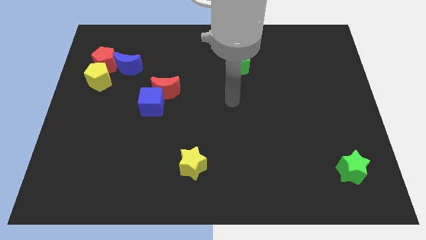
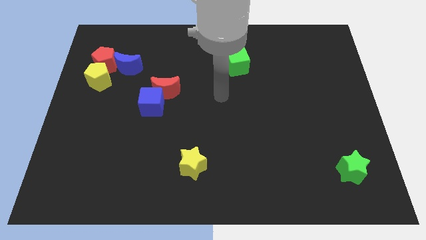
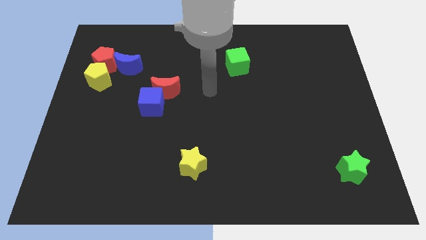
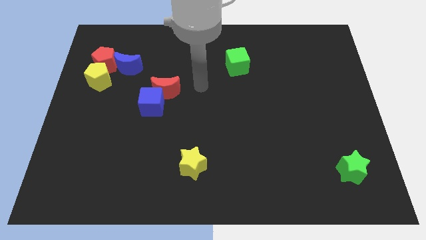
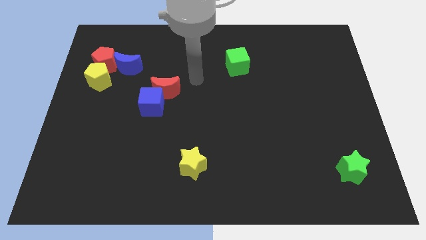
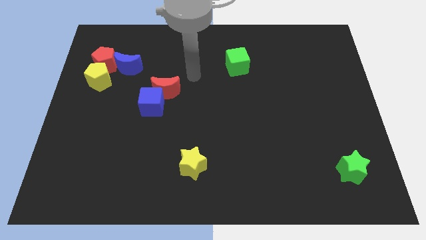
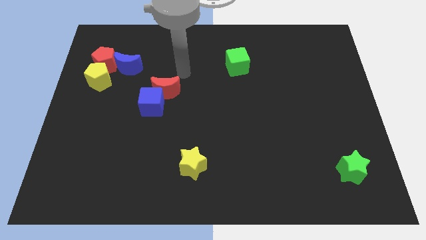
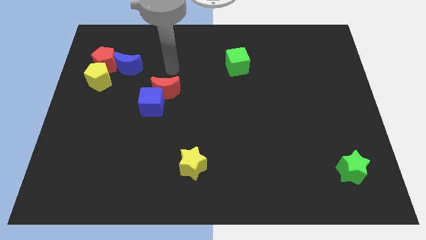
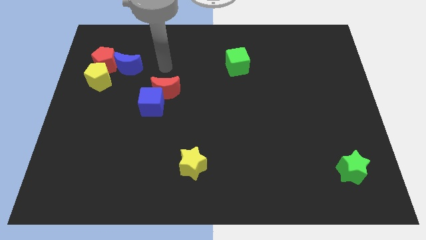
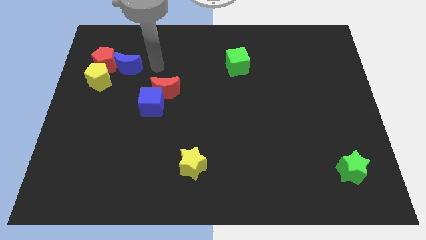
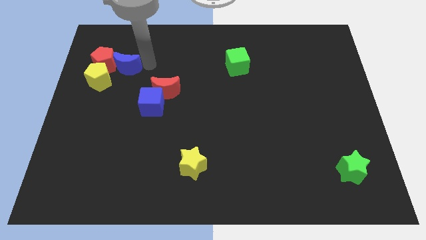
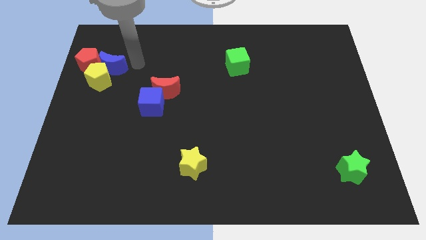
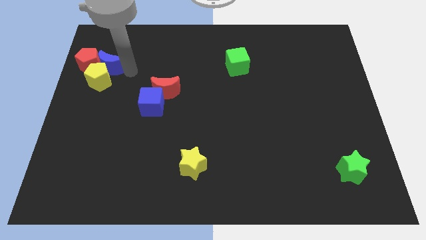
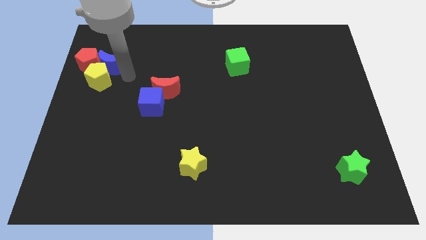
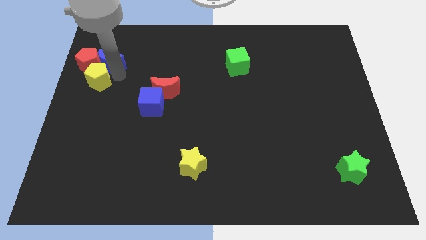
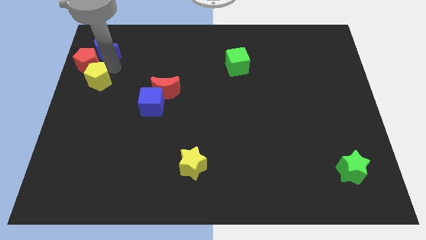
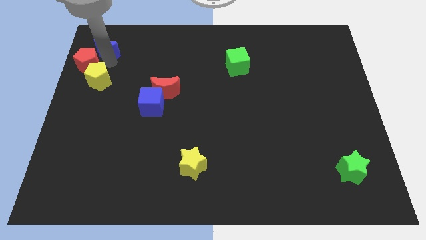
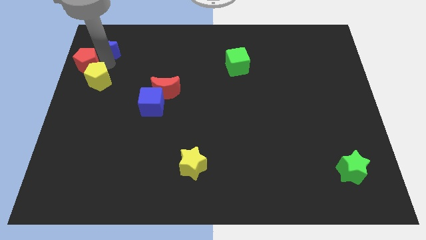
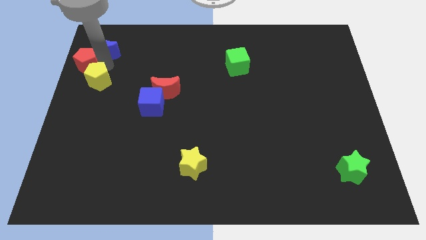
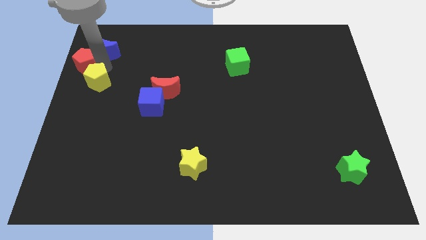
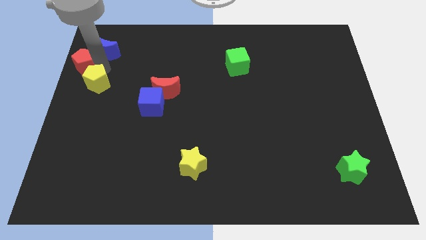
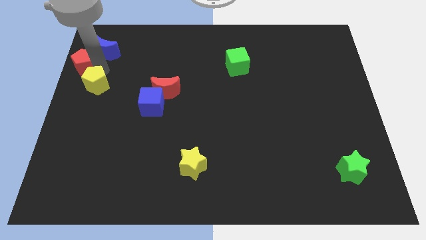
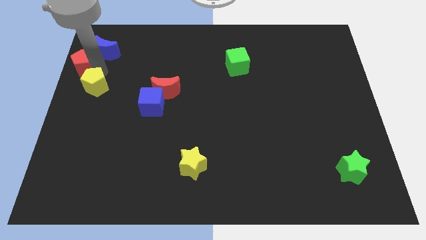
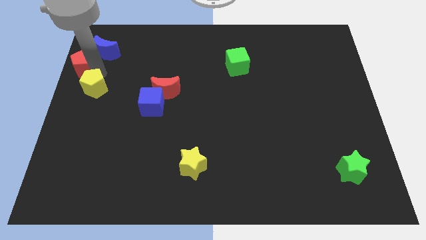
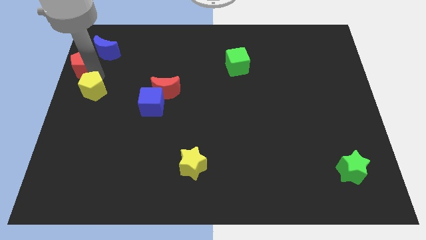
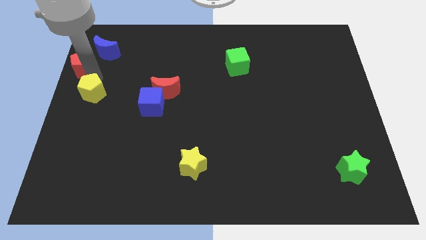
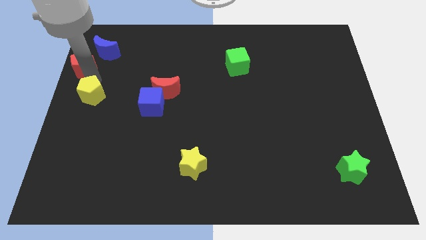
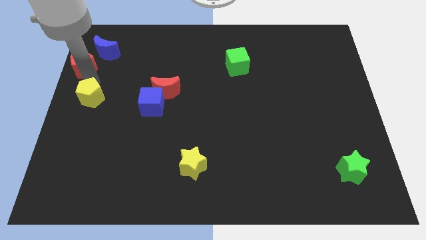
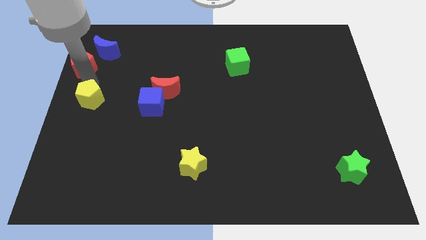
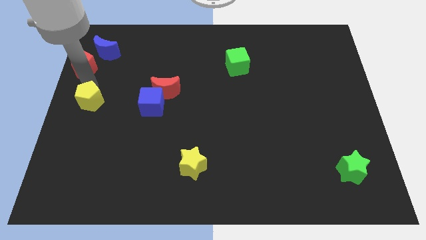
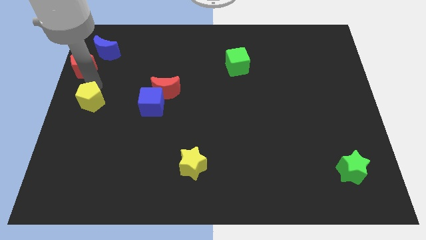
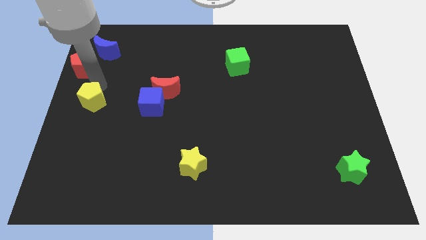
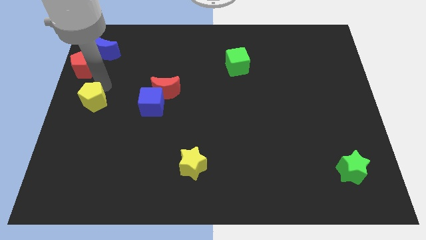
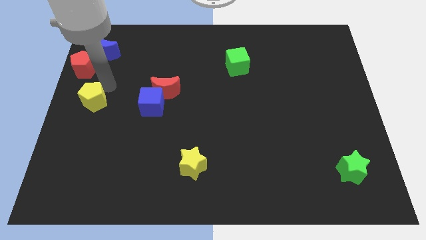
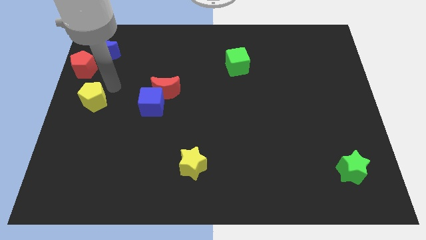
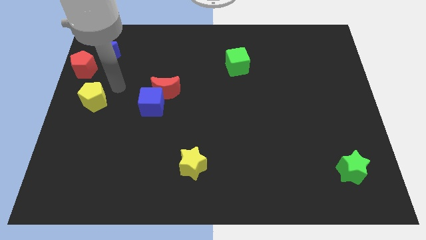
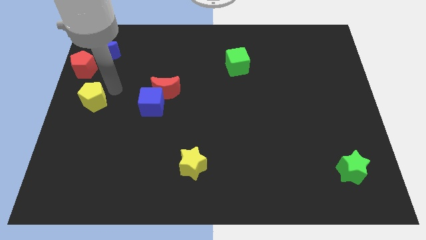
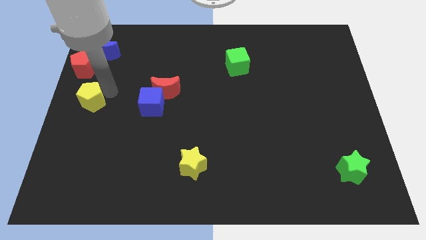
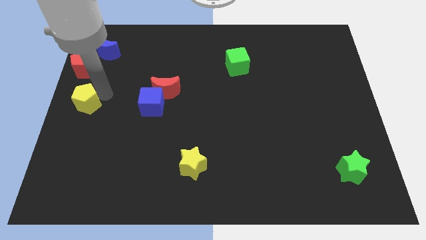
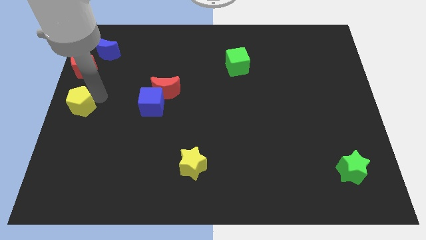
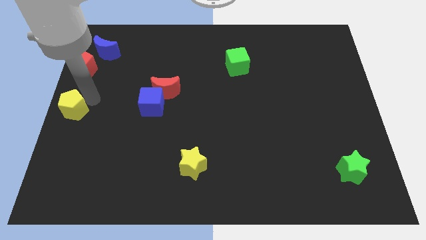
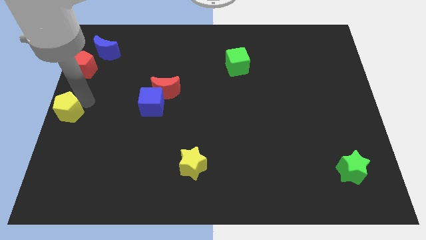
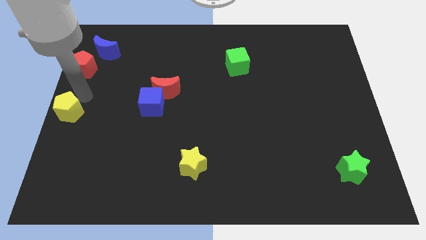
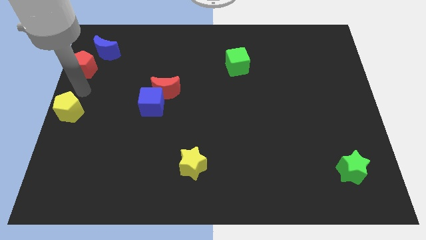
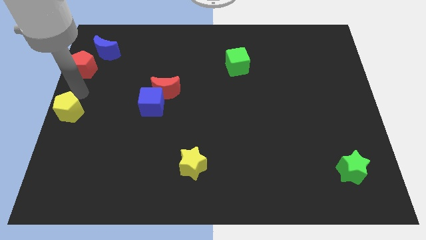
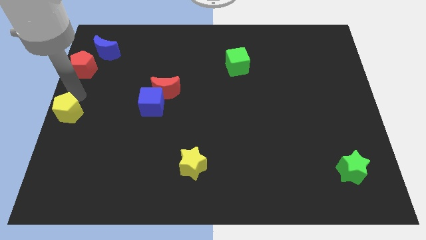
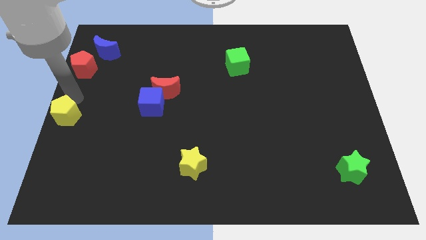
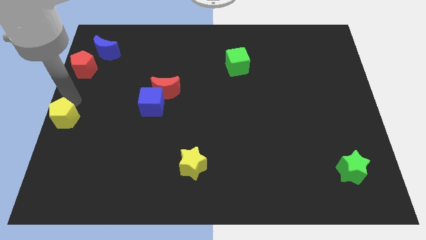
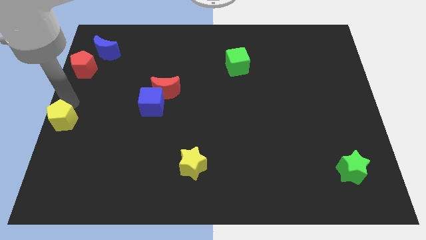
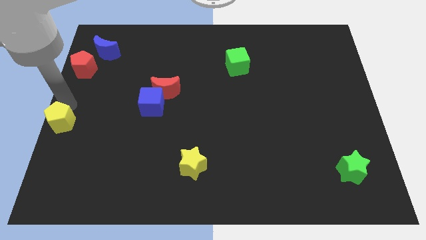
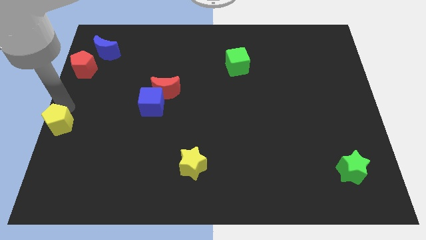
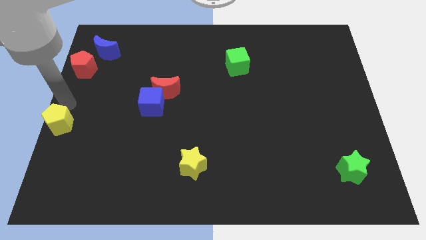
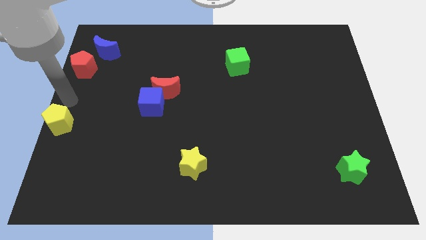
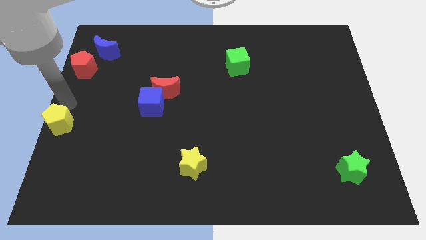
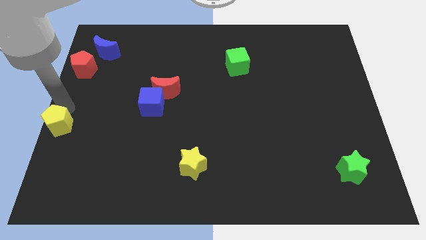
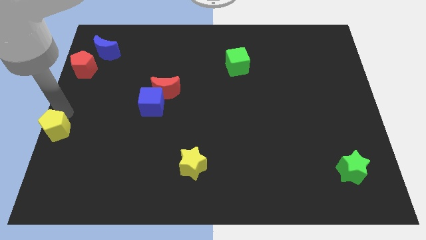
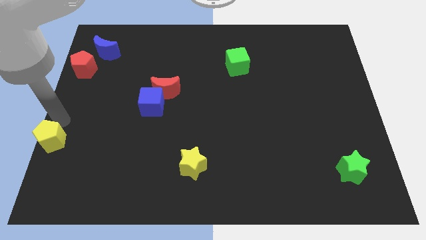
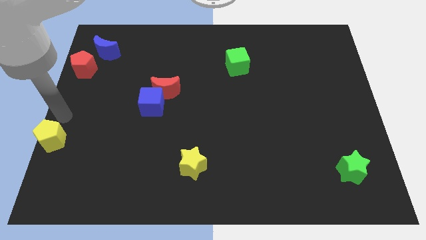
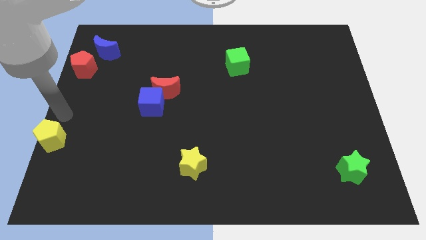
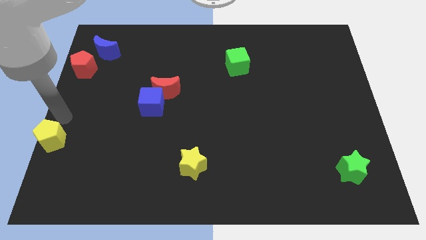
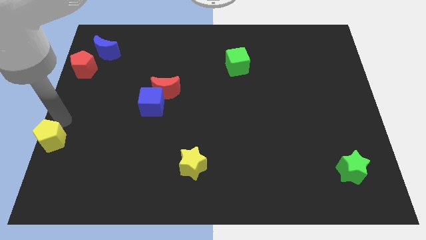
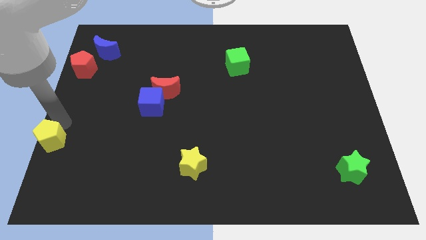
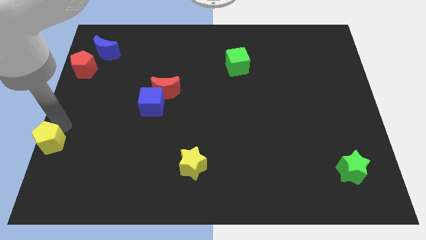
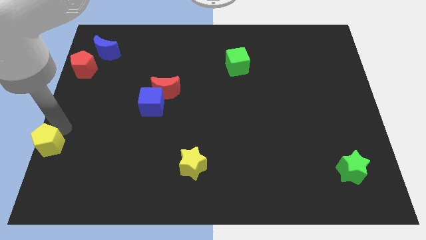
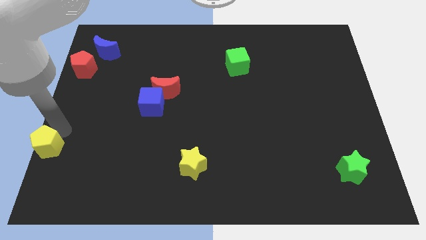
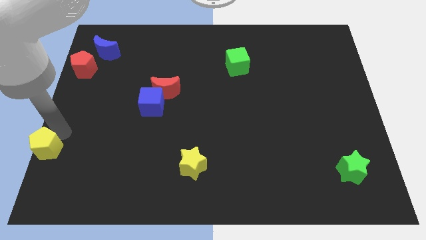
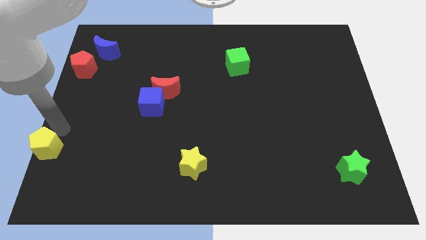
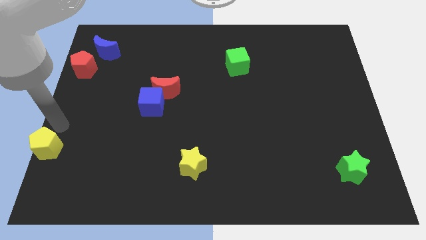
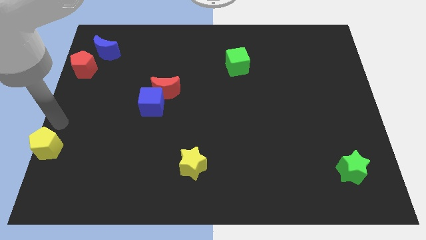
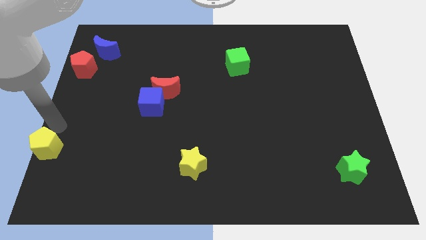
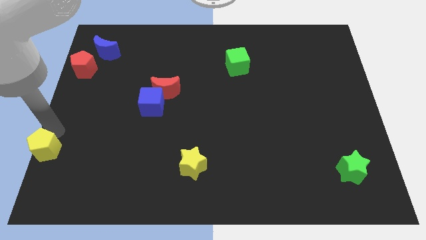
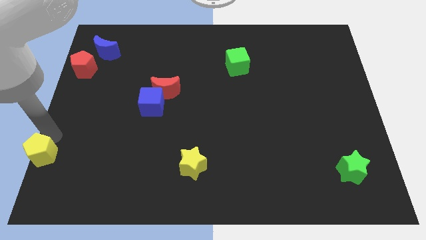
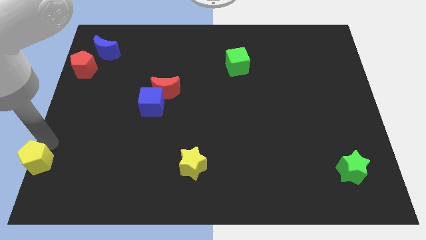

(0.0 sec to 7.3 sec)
put the yellow pentagon to the lower left corner
